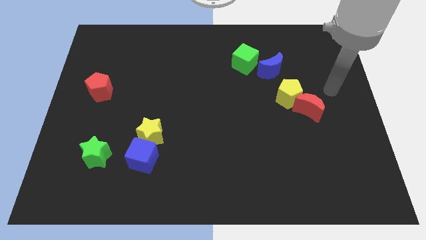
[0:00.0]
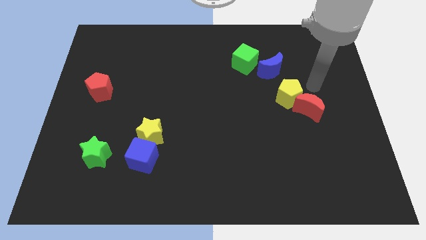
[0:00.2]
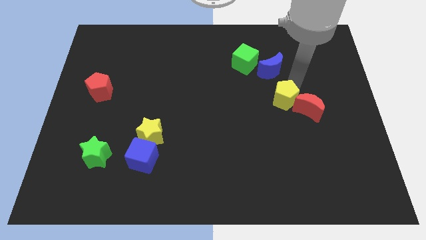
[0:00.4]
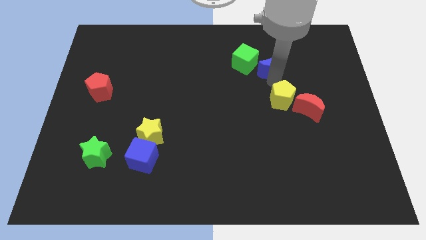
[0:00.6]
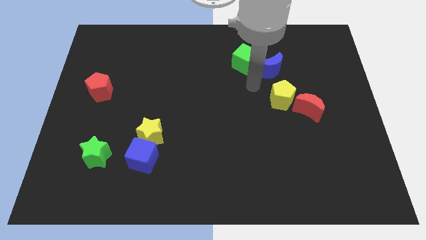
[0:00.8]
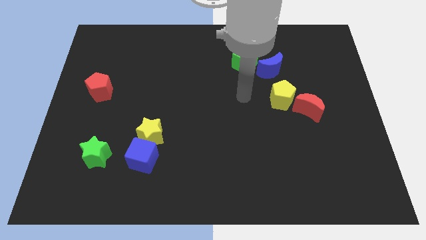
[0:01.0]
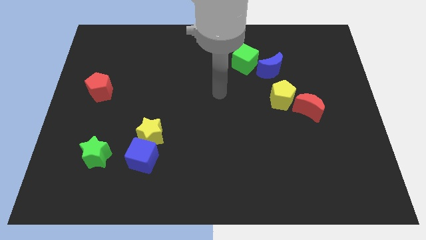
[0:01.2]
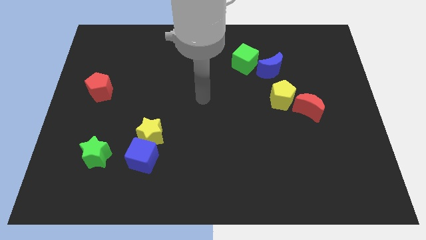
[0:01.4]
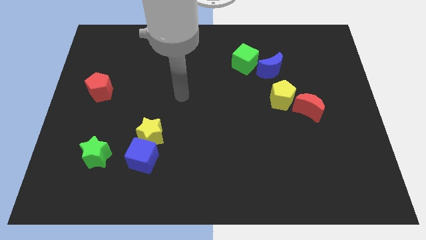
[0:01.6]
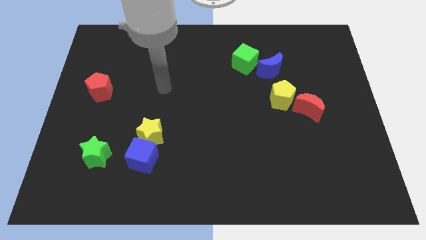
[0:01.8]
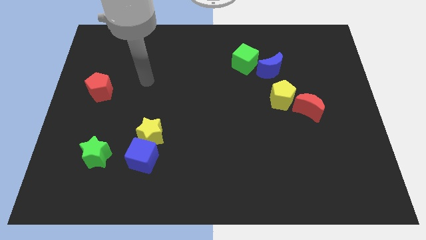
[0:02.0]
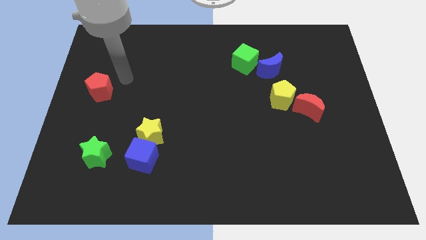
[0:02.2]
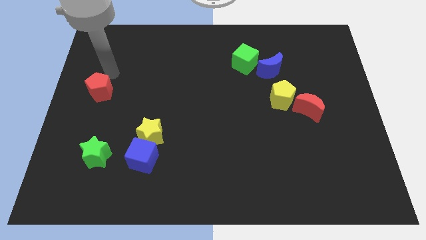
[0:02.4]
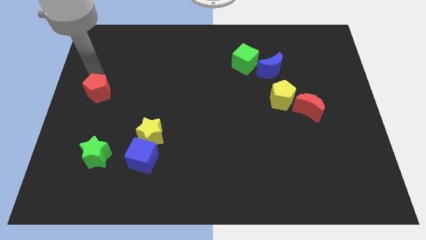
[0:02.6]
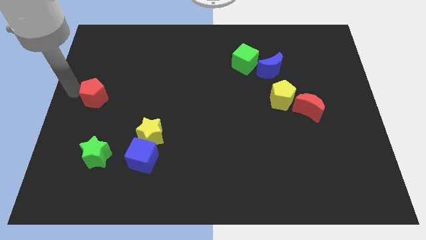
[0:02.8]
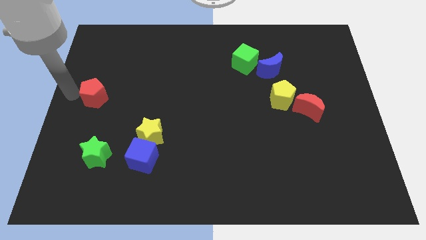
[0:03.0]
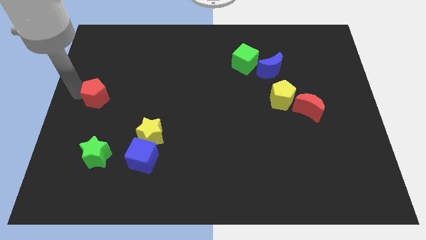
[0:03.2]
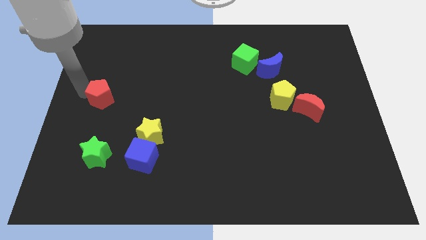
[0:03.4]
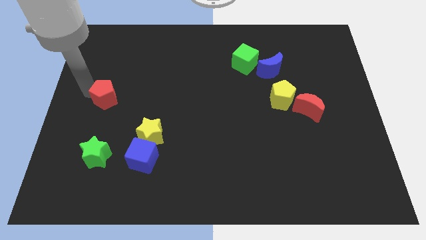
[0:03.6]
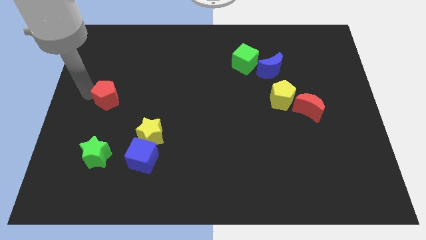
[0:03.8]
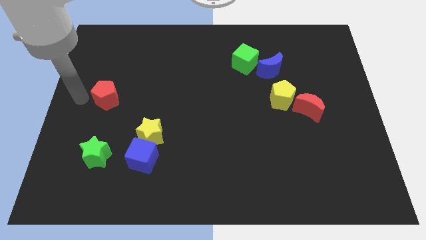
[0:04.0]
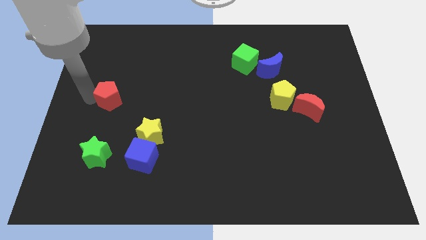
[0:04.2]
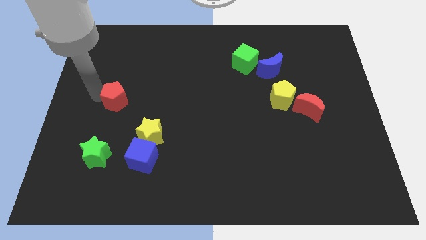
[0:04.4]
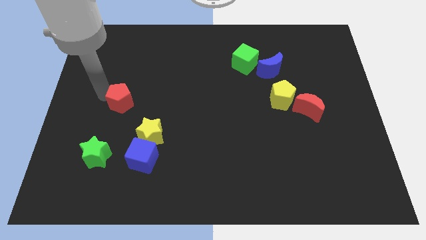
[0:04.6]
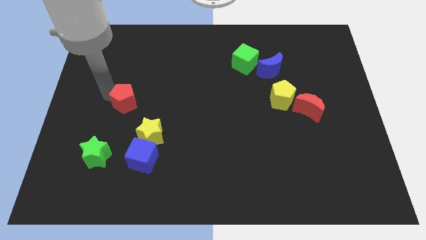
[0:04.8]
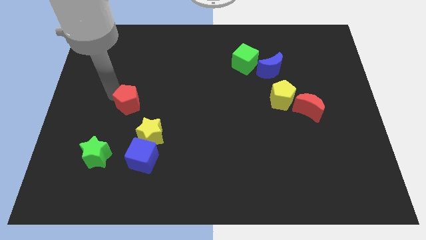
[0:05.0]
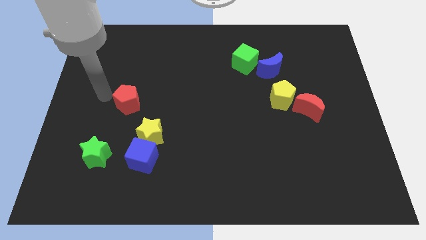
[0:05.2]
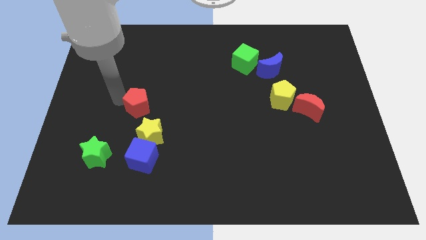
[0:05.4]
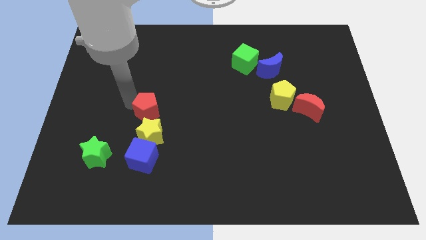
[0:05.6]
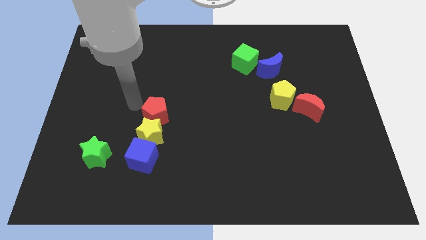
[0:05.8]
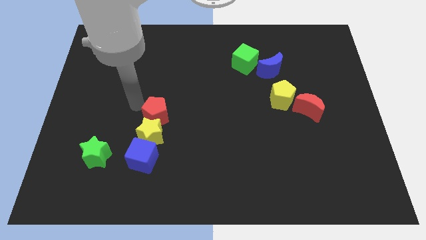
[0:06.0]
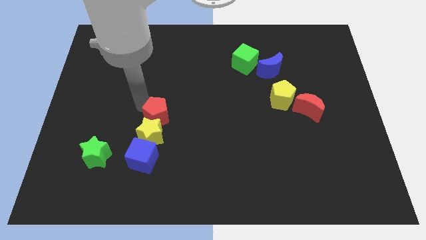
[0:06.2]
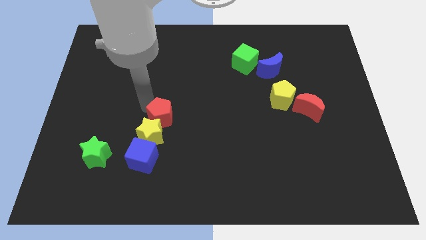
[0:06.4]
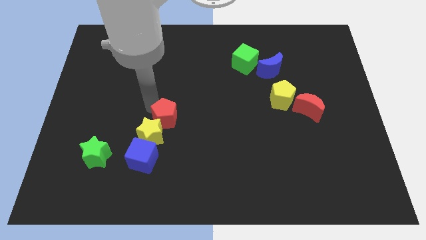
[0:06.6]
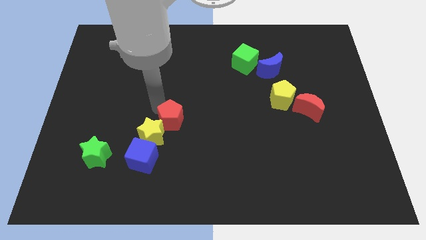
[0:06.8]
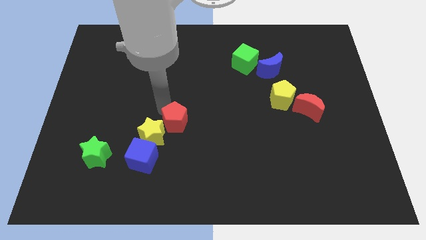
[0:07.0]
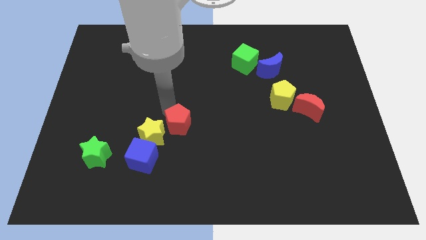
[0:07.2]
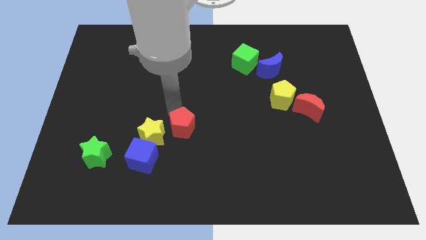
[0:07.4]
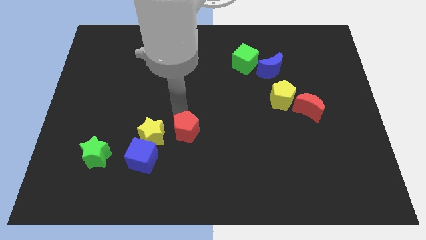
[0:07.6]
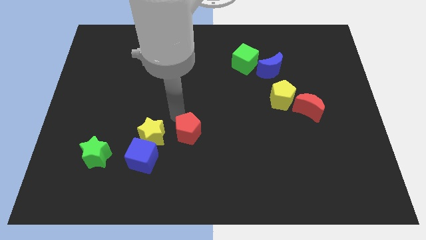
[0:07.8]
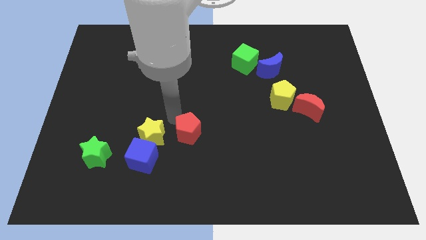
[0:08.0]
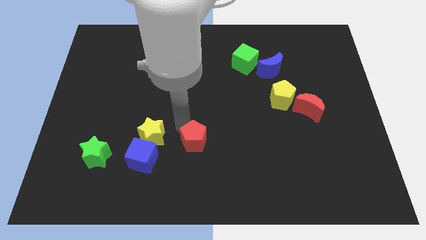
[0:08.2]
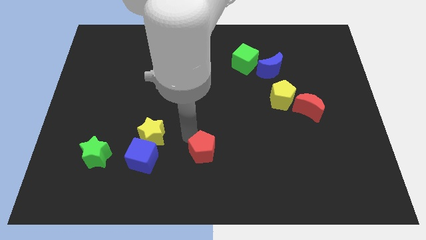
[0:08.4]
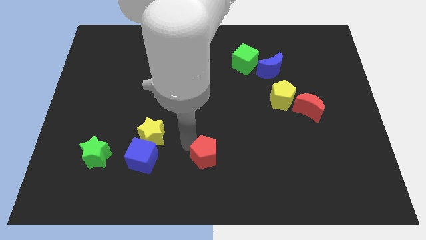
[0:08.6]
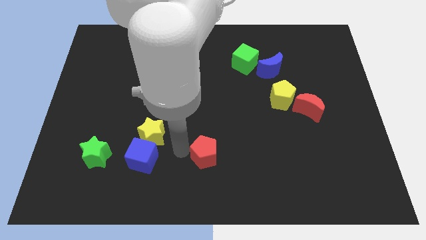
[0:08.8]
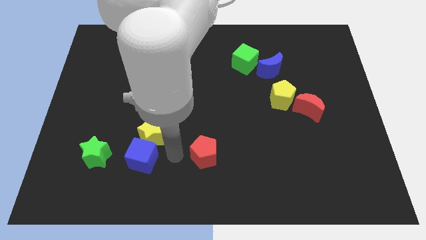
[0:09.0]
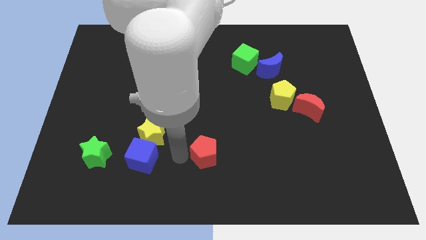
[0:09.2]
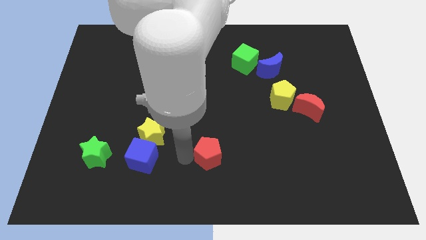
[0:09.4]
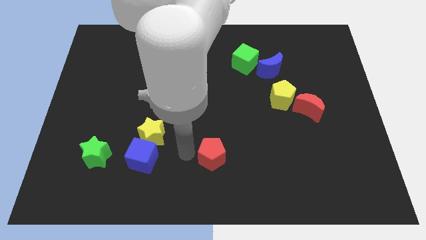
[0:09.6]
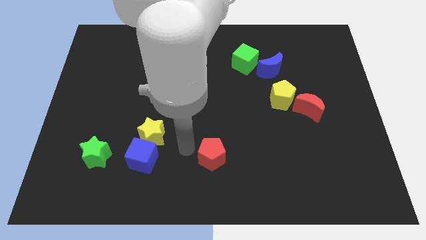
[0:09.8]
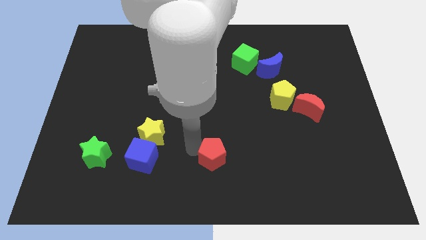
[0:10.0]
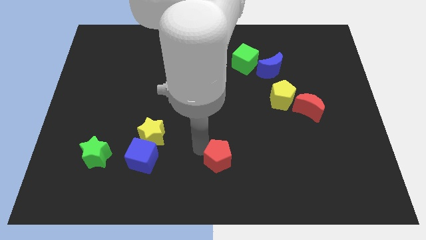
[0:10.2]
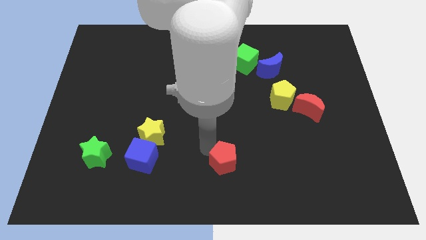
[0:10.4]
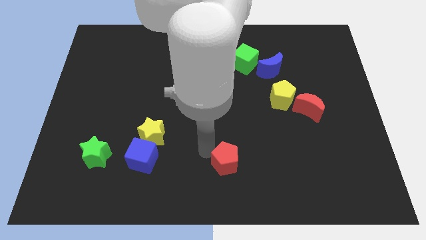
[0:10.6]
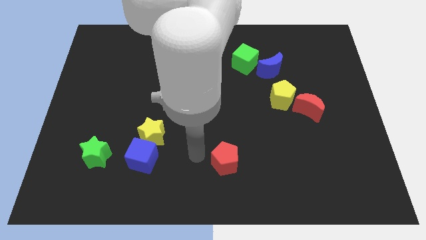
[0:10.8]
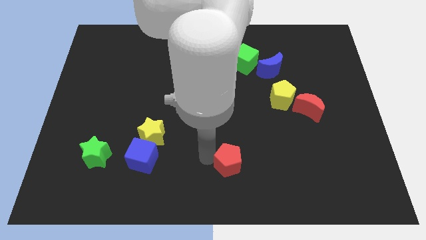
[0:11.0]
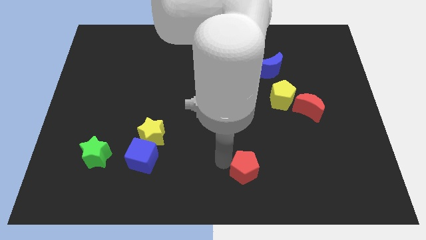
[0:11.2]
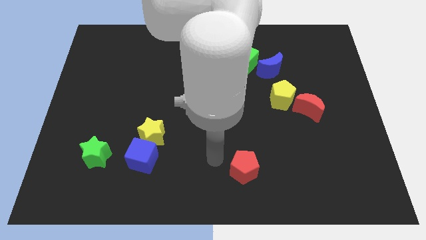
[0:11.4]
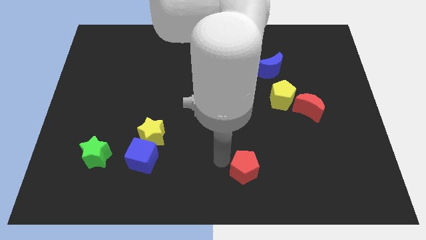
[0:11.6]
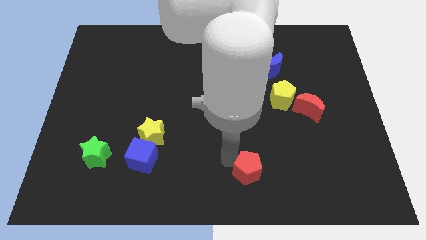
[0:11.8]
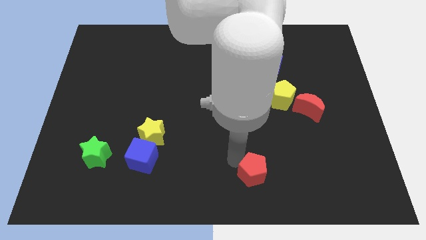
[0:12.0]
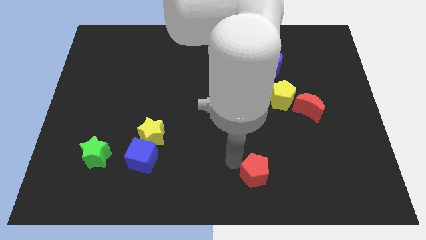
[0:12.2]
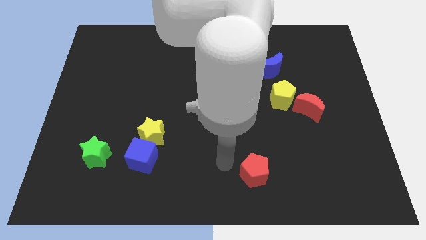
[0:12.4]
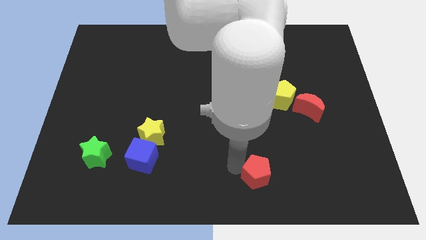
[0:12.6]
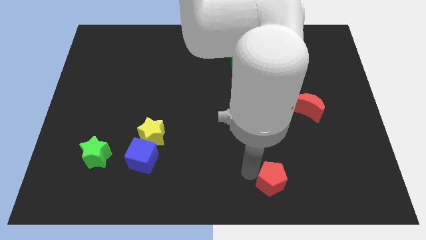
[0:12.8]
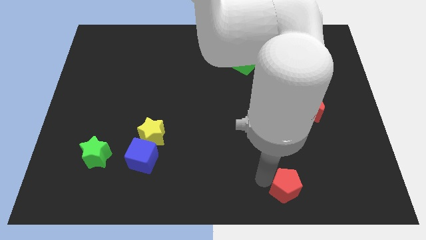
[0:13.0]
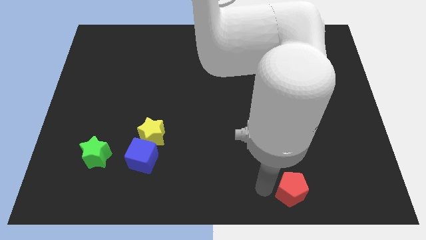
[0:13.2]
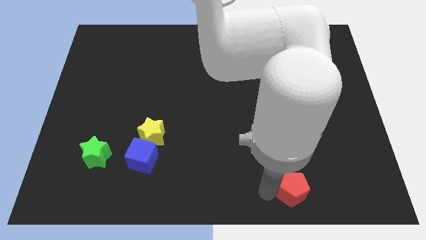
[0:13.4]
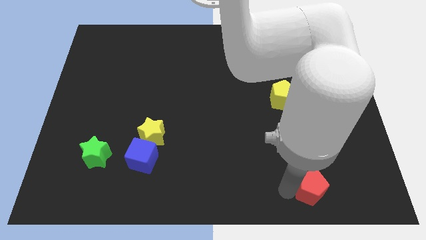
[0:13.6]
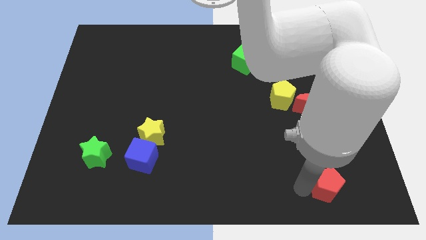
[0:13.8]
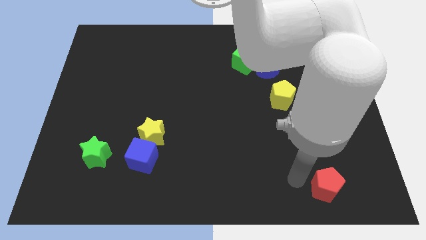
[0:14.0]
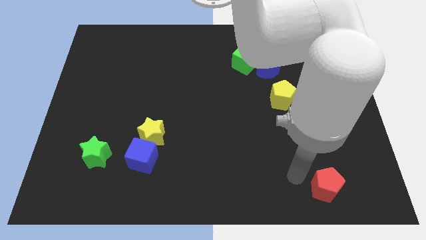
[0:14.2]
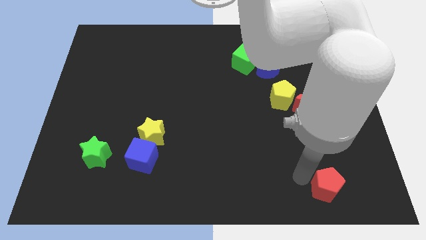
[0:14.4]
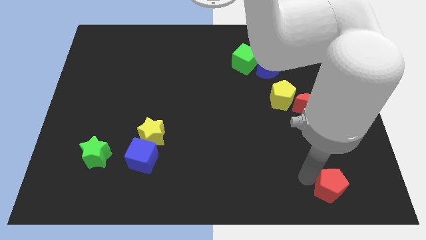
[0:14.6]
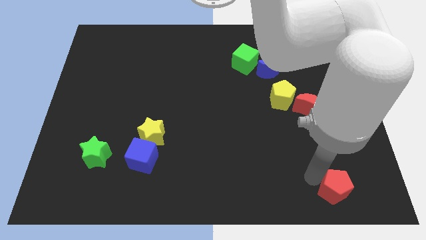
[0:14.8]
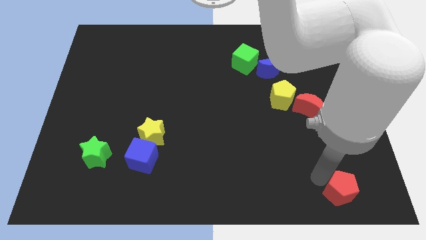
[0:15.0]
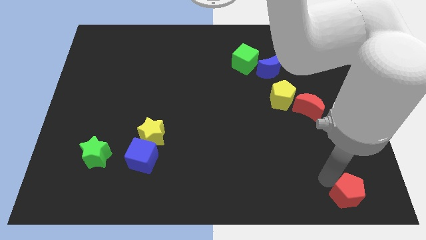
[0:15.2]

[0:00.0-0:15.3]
push the red pentagon to the bottom right corner
